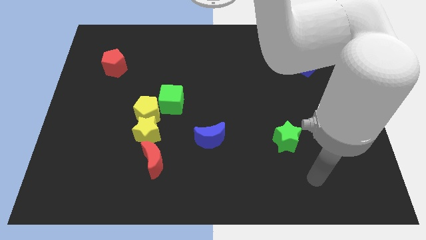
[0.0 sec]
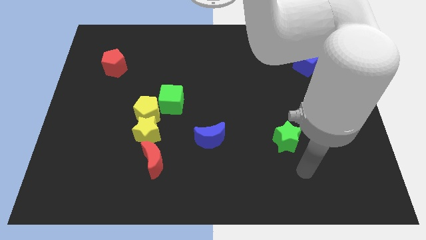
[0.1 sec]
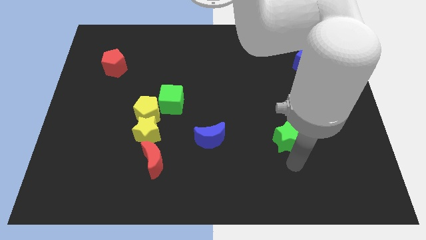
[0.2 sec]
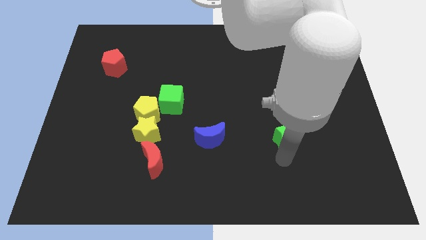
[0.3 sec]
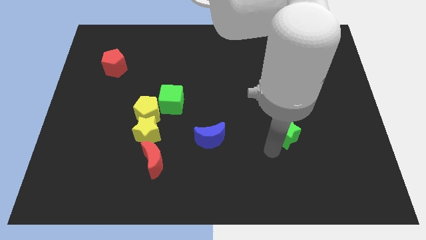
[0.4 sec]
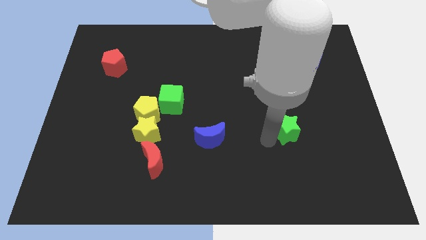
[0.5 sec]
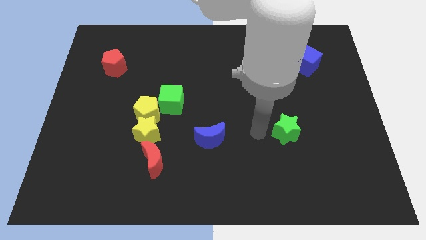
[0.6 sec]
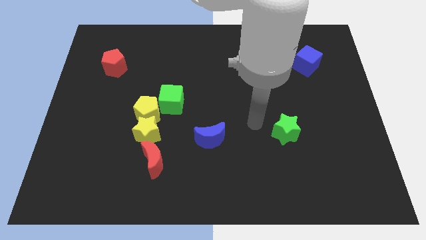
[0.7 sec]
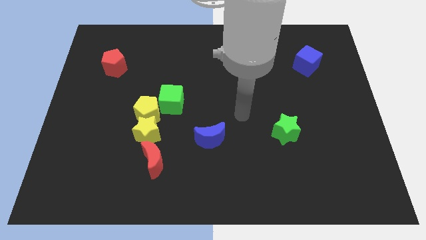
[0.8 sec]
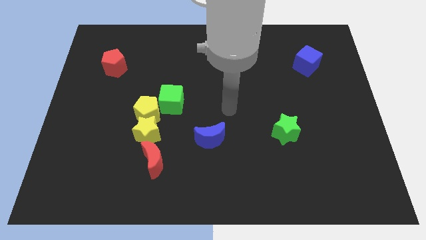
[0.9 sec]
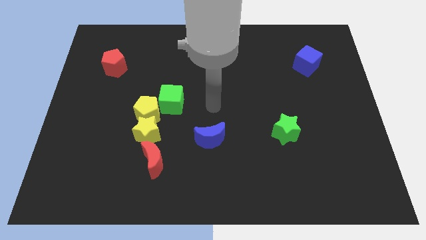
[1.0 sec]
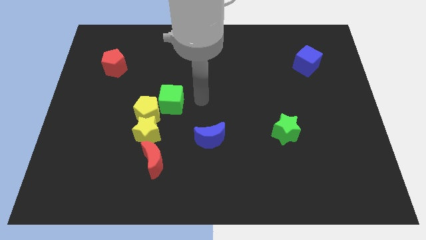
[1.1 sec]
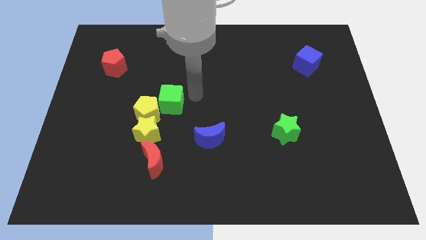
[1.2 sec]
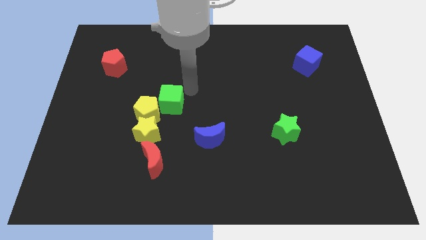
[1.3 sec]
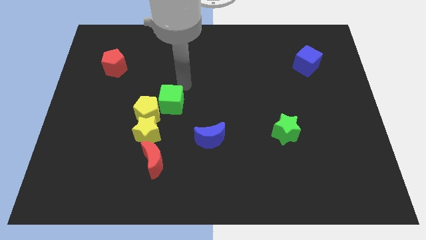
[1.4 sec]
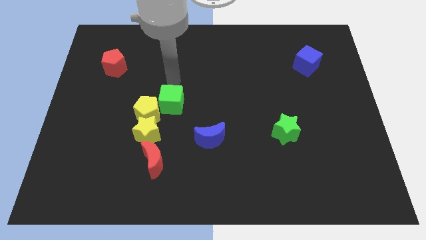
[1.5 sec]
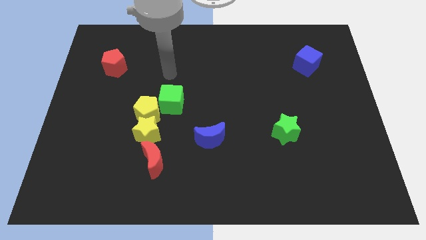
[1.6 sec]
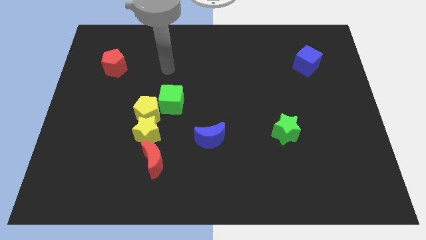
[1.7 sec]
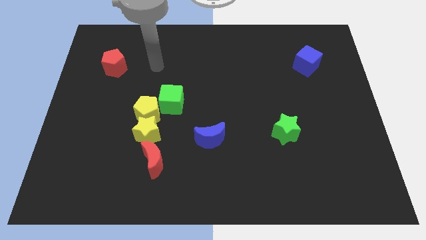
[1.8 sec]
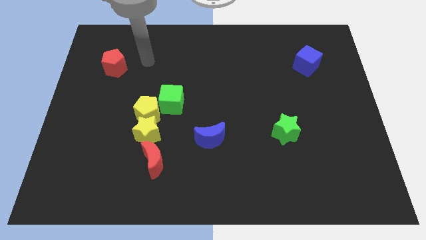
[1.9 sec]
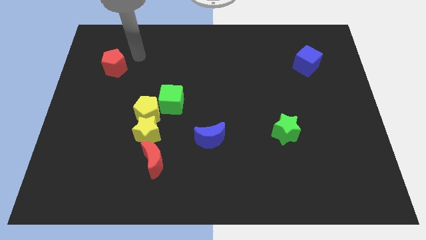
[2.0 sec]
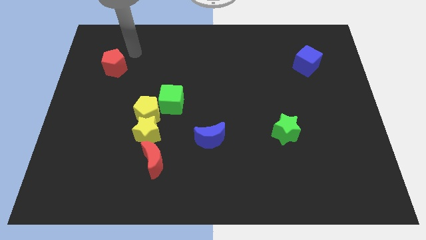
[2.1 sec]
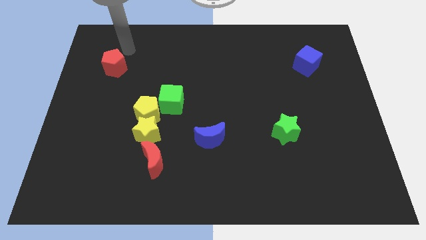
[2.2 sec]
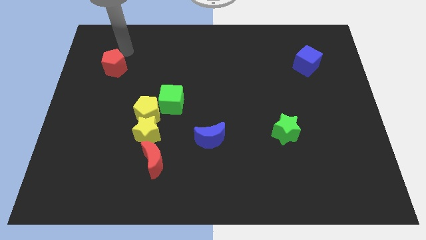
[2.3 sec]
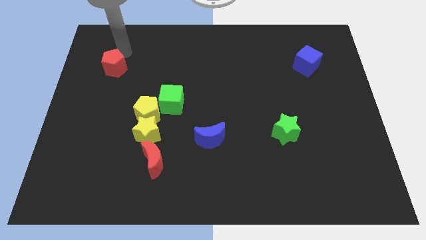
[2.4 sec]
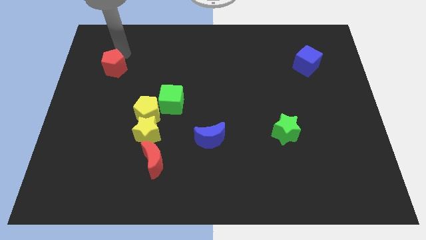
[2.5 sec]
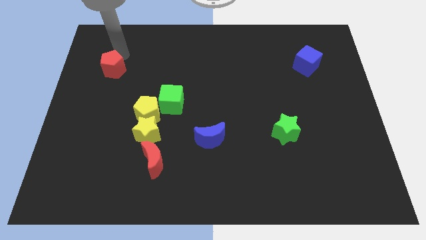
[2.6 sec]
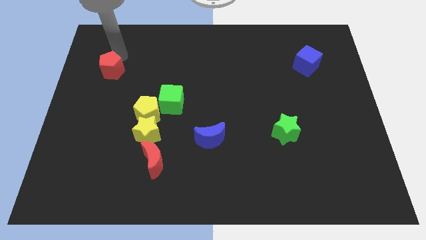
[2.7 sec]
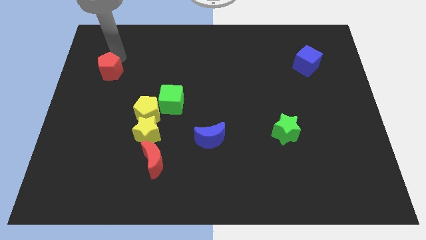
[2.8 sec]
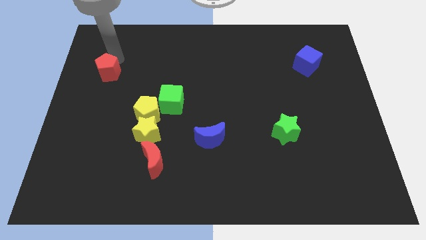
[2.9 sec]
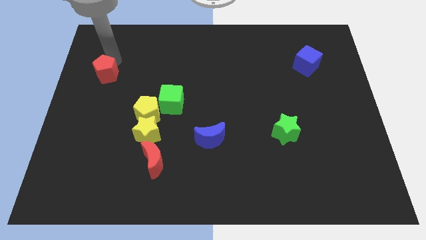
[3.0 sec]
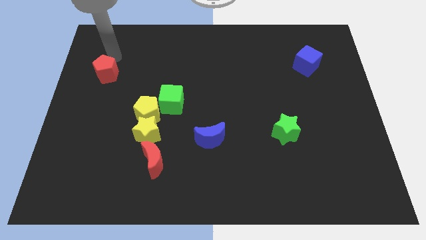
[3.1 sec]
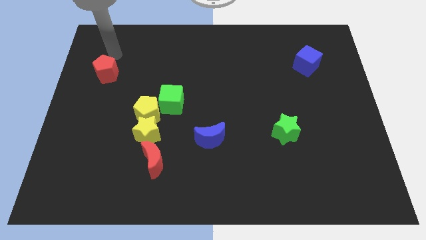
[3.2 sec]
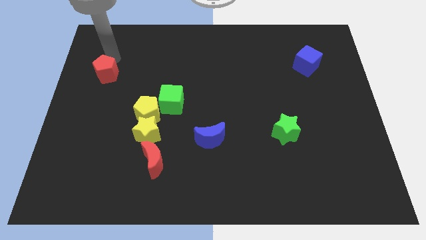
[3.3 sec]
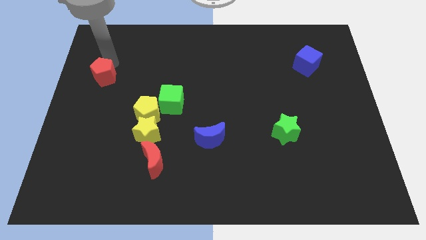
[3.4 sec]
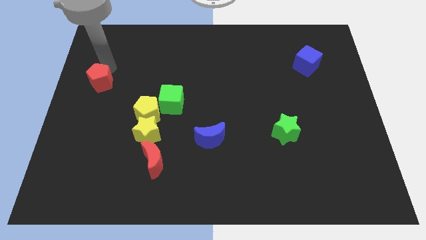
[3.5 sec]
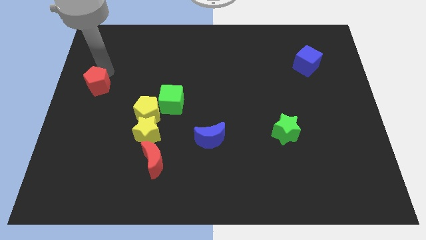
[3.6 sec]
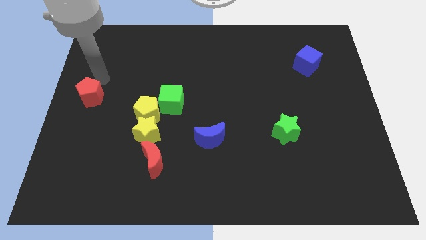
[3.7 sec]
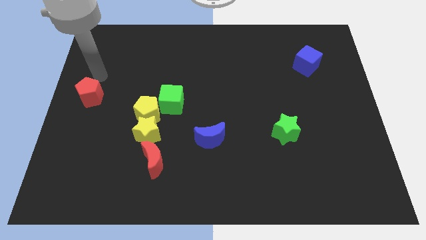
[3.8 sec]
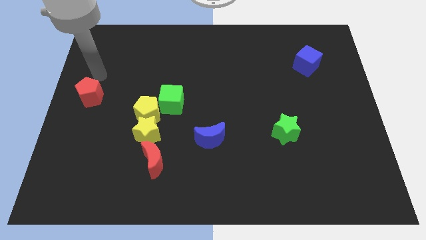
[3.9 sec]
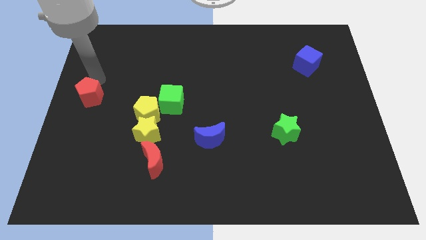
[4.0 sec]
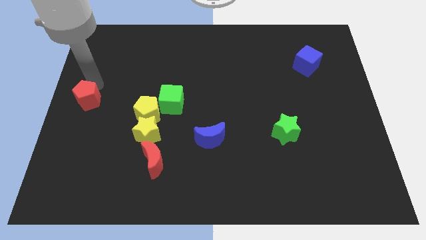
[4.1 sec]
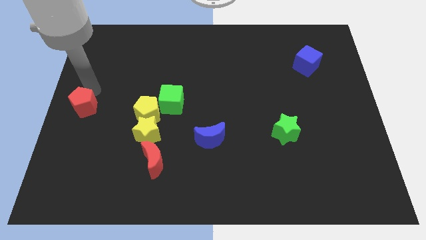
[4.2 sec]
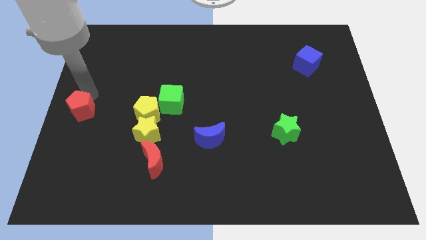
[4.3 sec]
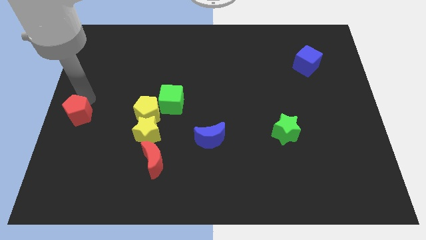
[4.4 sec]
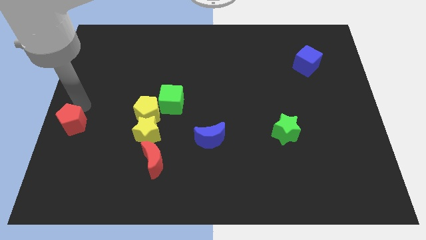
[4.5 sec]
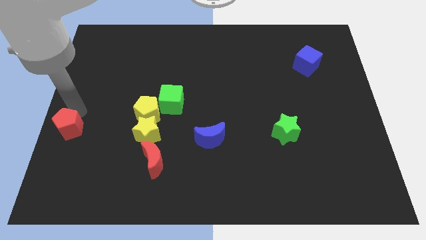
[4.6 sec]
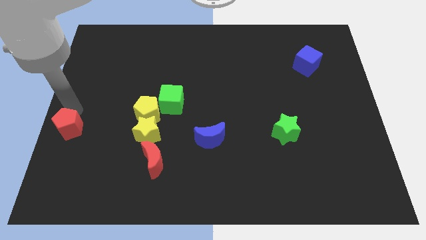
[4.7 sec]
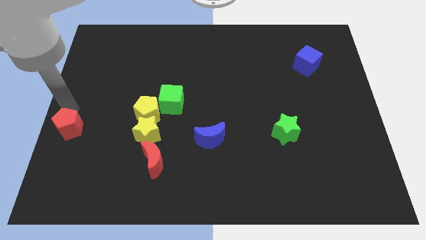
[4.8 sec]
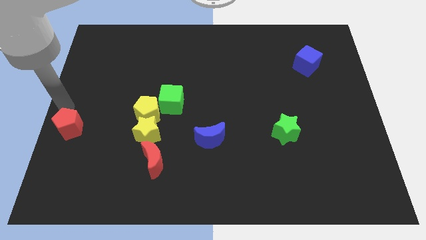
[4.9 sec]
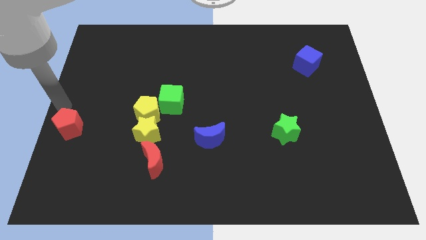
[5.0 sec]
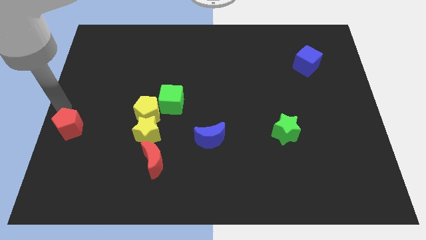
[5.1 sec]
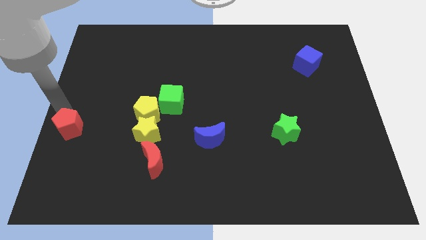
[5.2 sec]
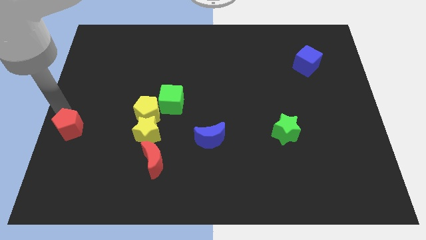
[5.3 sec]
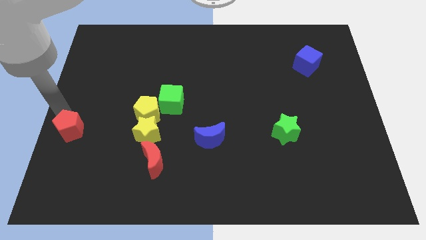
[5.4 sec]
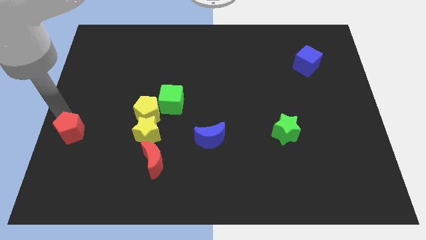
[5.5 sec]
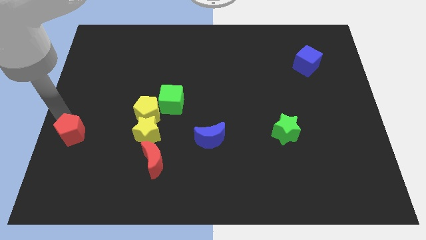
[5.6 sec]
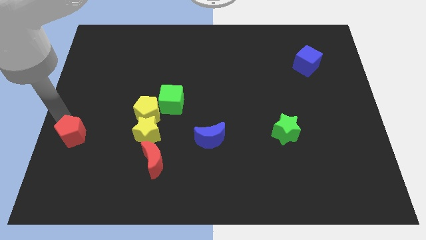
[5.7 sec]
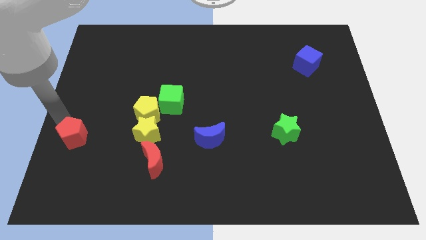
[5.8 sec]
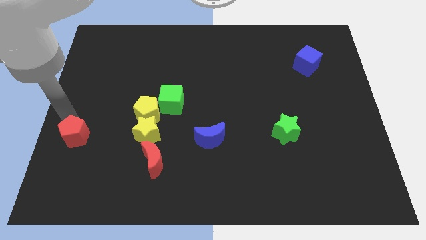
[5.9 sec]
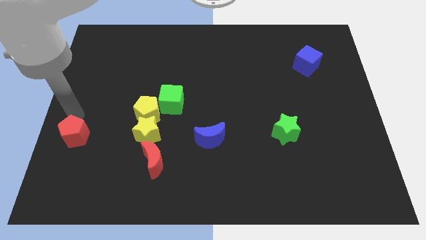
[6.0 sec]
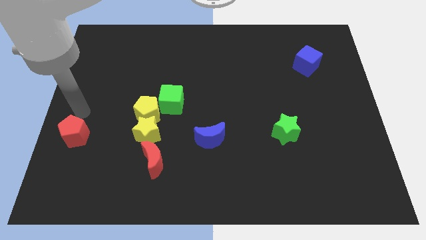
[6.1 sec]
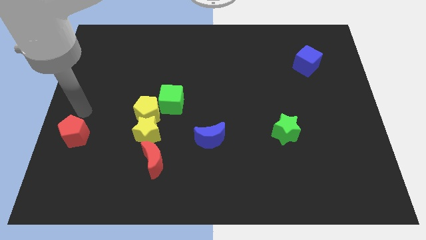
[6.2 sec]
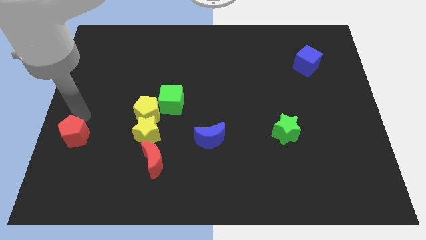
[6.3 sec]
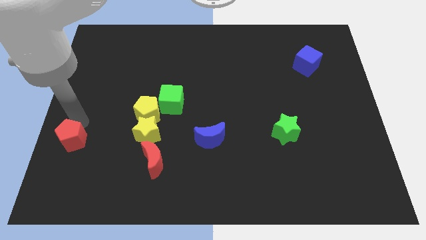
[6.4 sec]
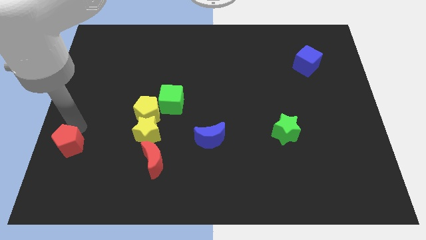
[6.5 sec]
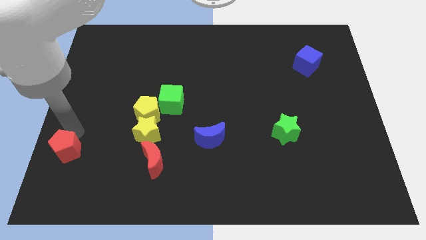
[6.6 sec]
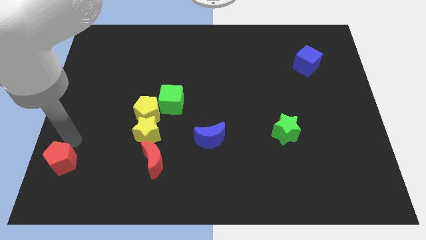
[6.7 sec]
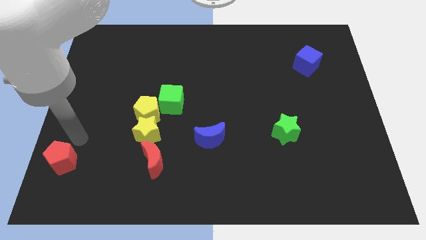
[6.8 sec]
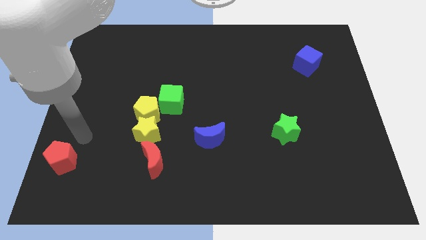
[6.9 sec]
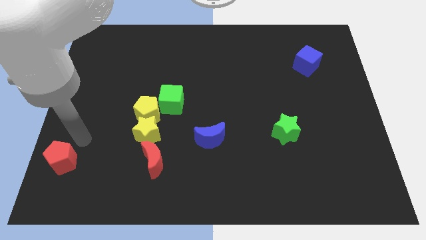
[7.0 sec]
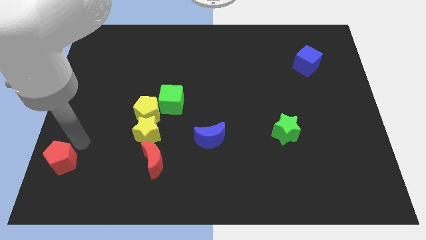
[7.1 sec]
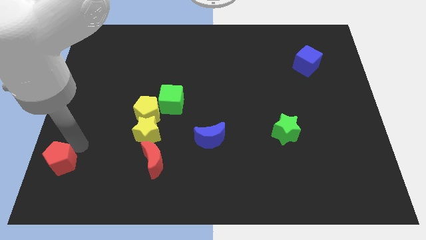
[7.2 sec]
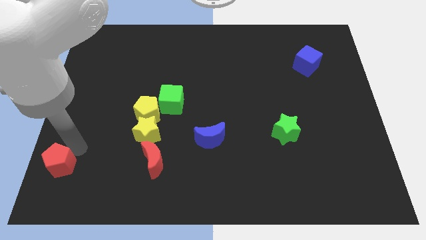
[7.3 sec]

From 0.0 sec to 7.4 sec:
push the red pentagon to the lower left corner
